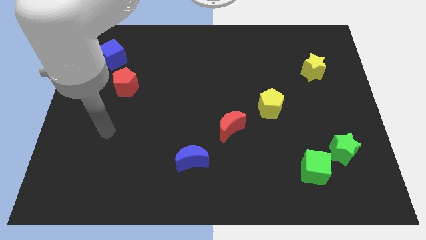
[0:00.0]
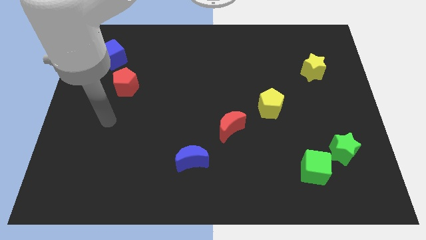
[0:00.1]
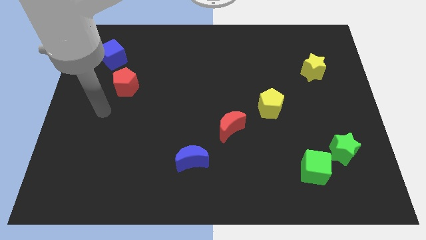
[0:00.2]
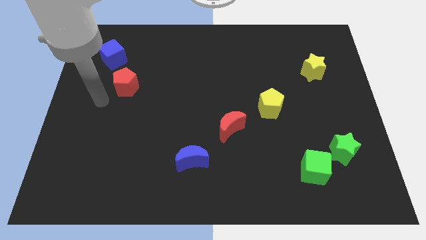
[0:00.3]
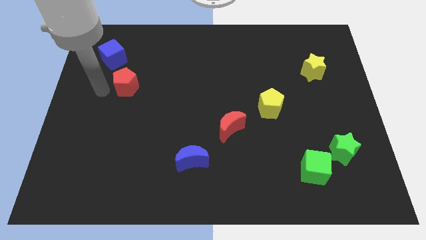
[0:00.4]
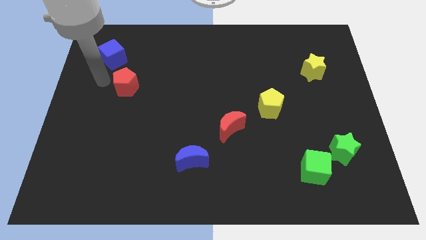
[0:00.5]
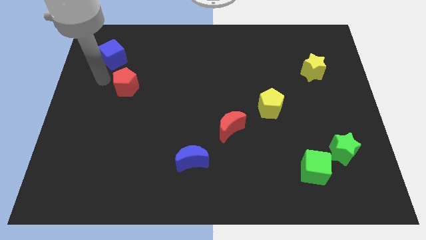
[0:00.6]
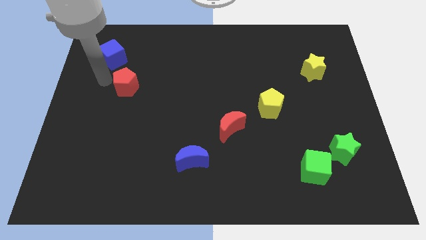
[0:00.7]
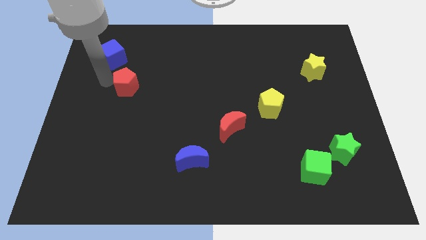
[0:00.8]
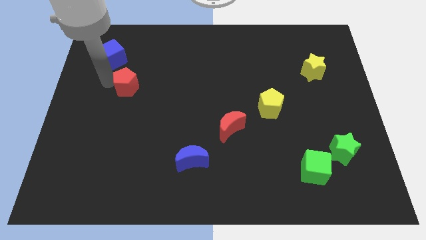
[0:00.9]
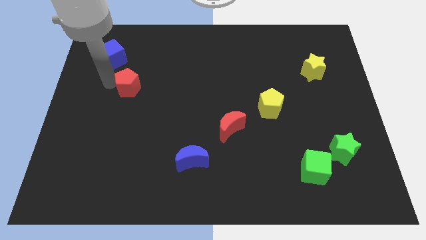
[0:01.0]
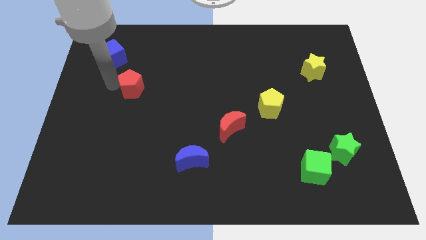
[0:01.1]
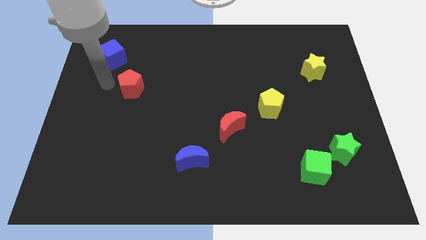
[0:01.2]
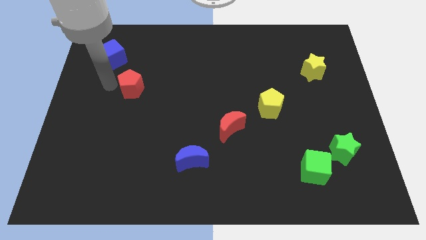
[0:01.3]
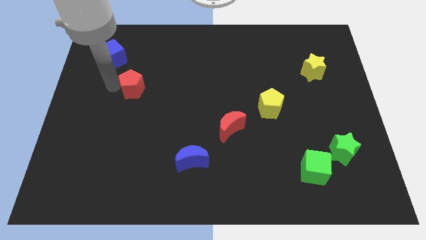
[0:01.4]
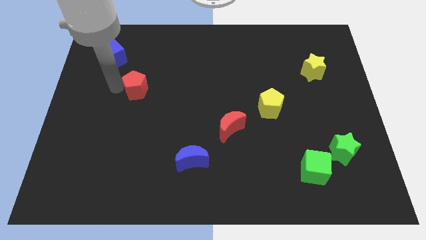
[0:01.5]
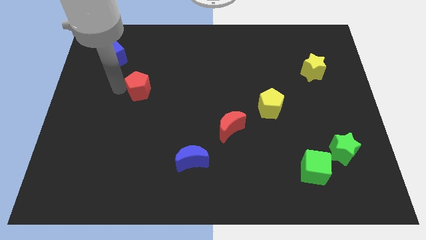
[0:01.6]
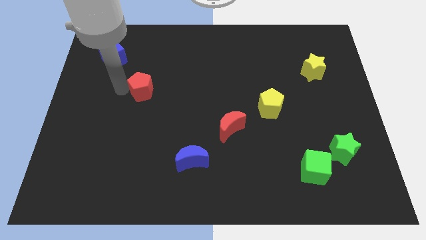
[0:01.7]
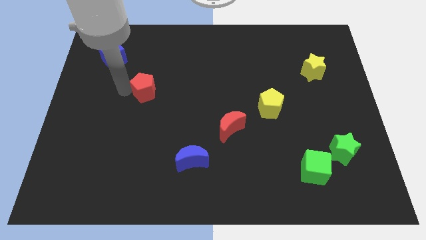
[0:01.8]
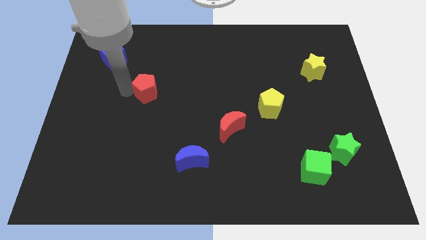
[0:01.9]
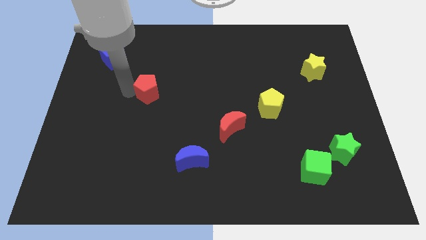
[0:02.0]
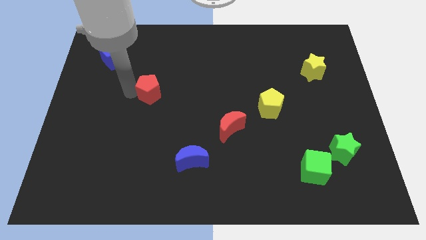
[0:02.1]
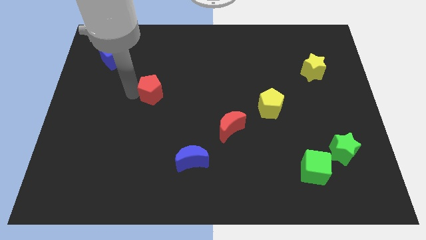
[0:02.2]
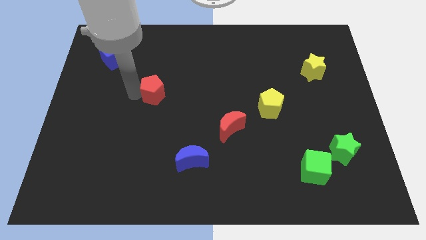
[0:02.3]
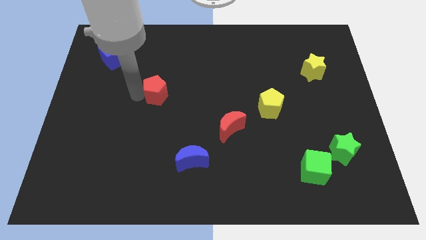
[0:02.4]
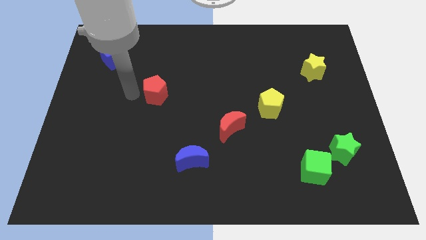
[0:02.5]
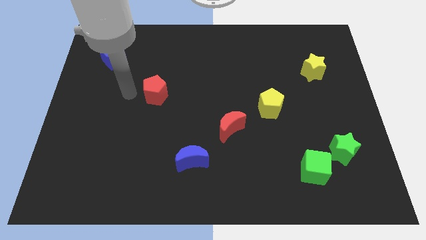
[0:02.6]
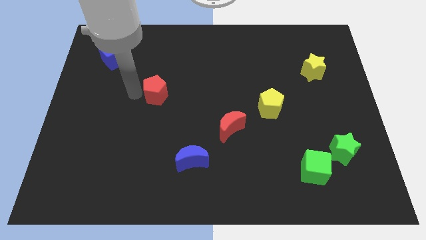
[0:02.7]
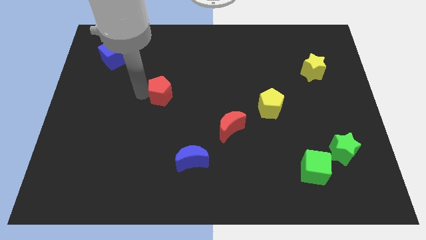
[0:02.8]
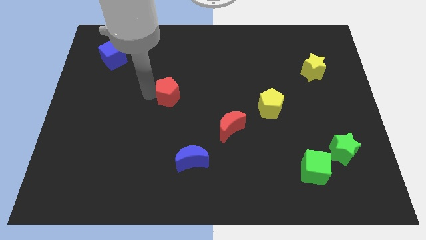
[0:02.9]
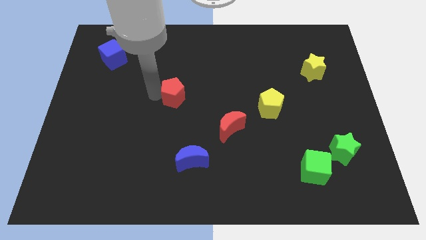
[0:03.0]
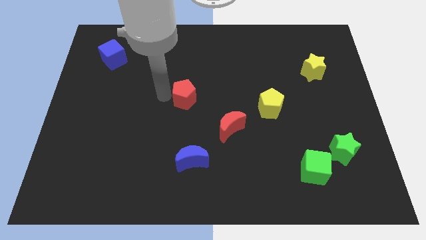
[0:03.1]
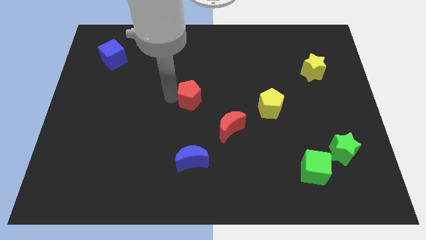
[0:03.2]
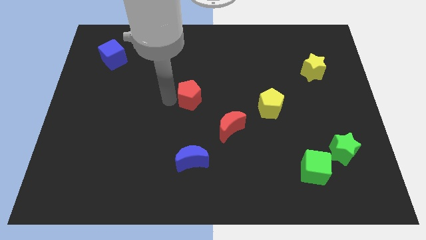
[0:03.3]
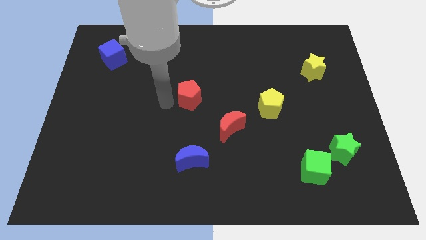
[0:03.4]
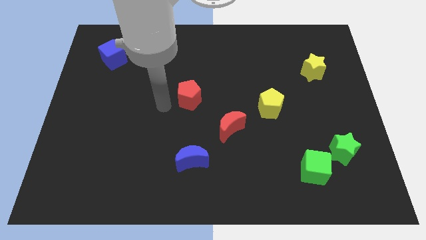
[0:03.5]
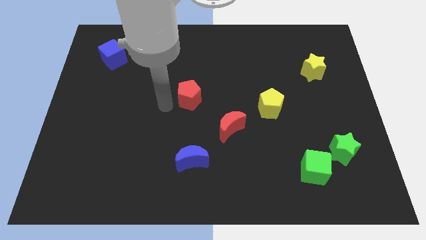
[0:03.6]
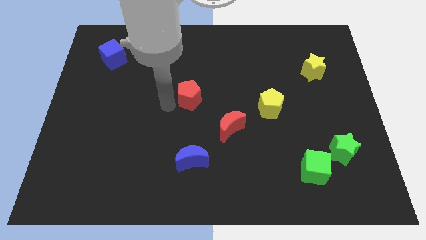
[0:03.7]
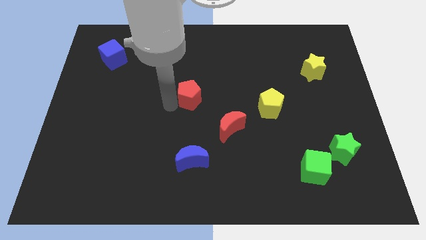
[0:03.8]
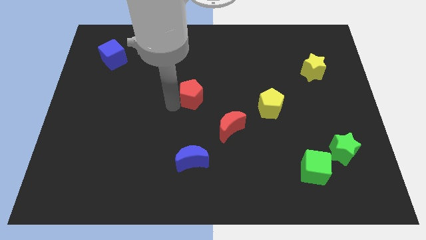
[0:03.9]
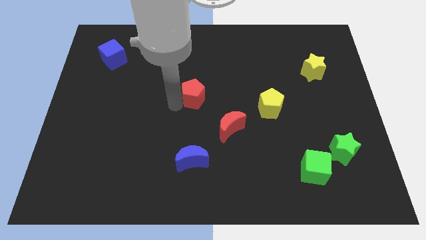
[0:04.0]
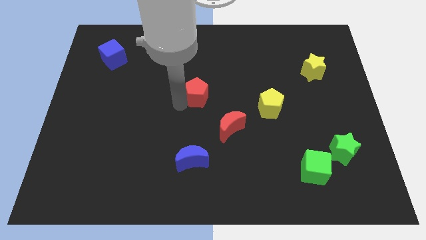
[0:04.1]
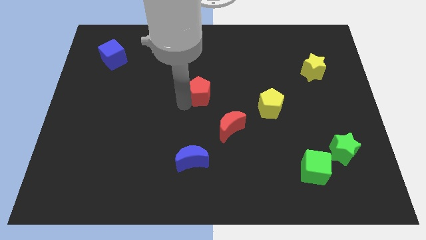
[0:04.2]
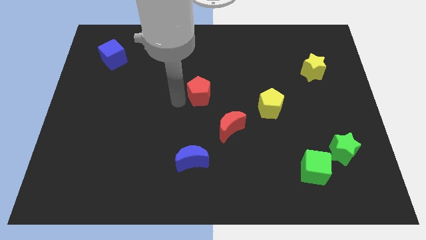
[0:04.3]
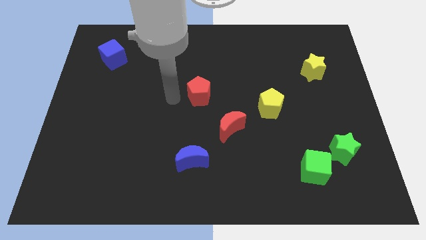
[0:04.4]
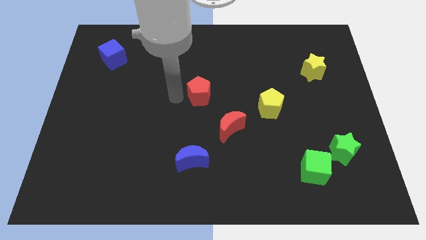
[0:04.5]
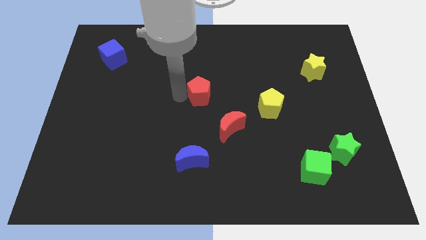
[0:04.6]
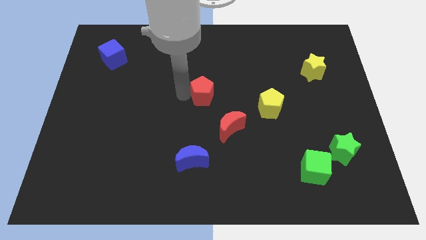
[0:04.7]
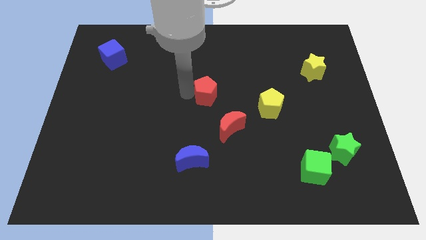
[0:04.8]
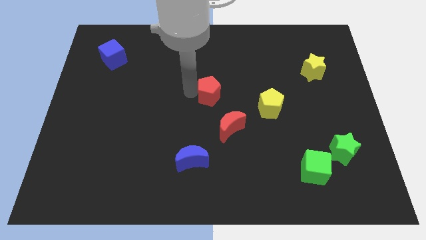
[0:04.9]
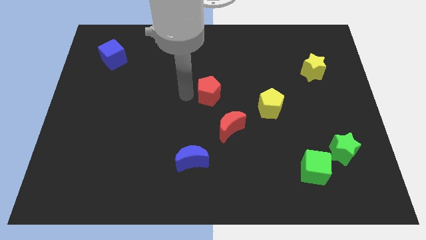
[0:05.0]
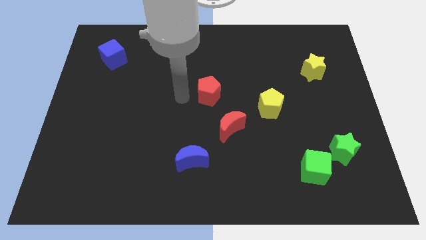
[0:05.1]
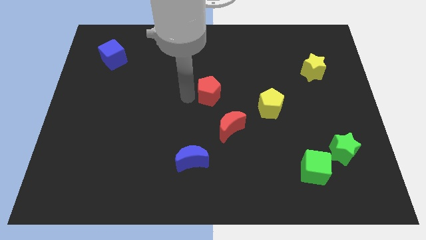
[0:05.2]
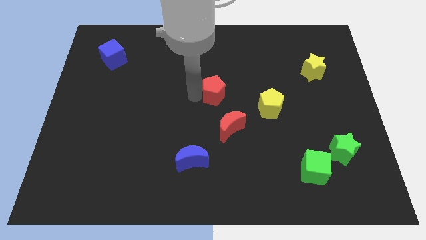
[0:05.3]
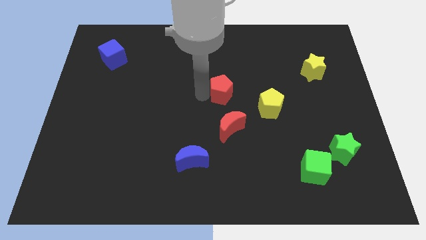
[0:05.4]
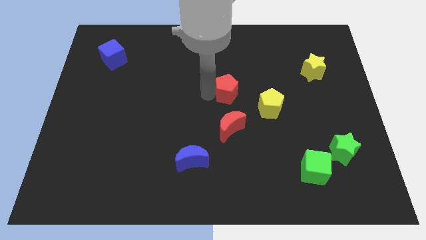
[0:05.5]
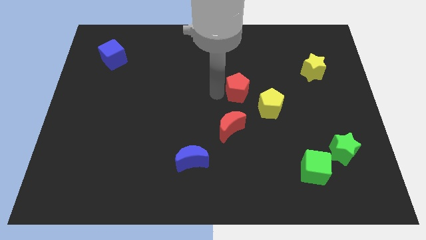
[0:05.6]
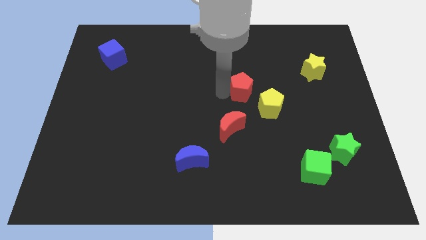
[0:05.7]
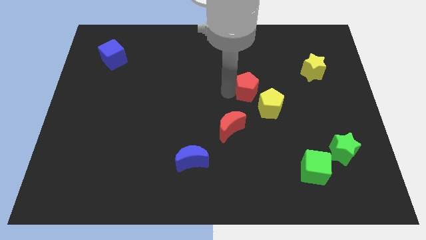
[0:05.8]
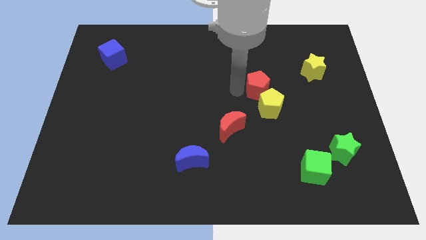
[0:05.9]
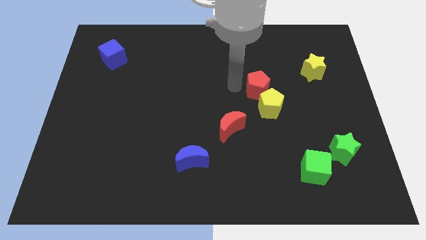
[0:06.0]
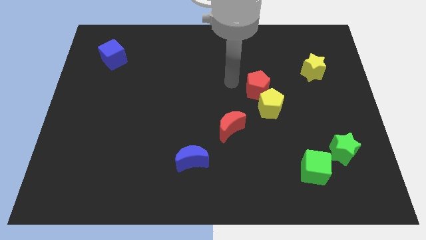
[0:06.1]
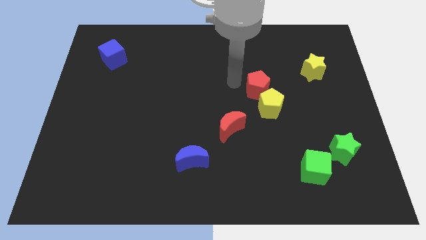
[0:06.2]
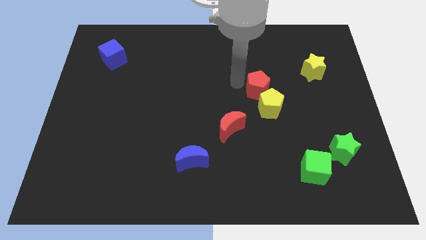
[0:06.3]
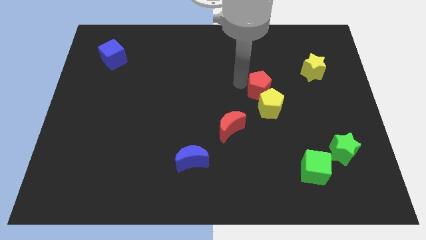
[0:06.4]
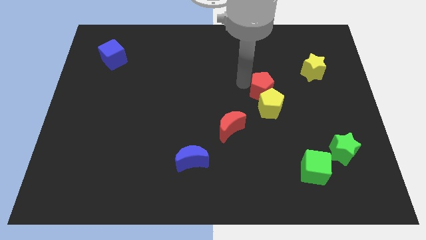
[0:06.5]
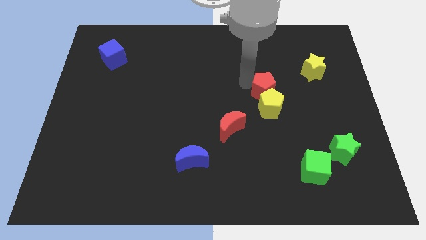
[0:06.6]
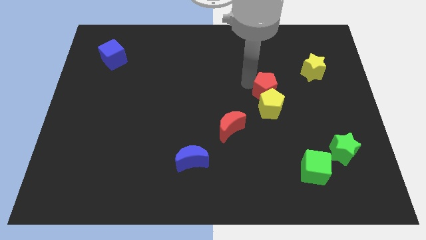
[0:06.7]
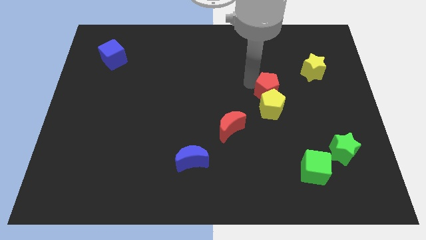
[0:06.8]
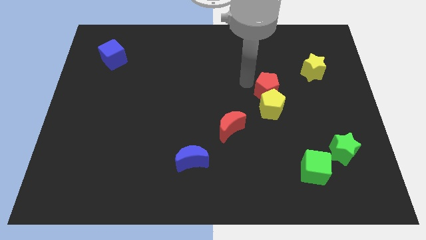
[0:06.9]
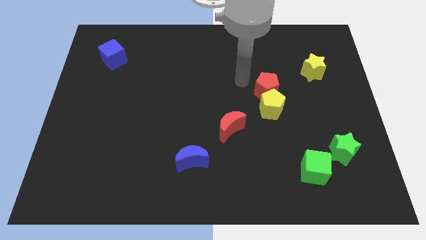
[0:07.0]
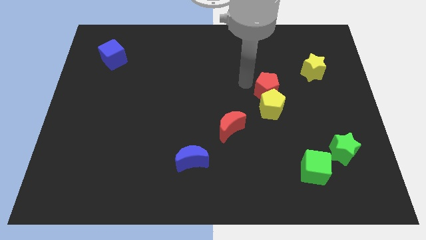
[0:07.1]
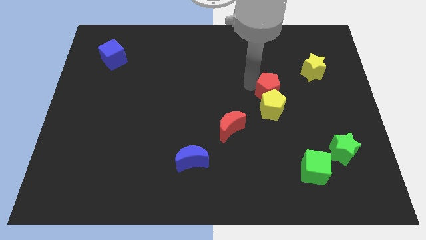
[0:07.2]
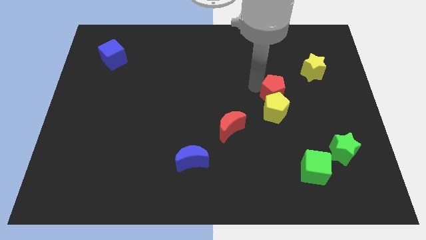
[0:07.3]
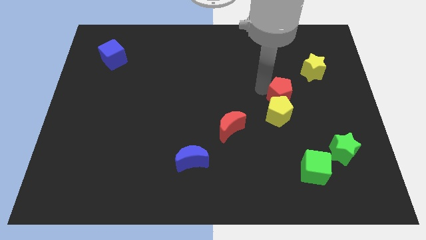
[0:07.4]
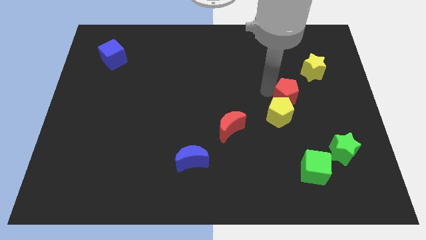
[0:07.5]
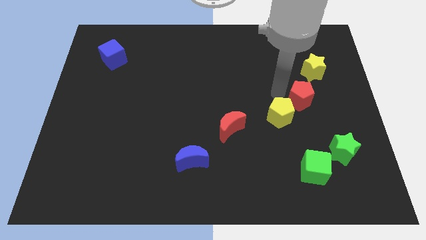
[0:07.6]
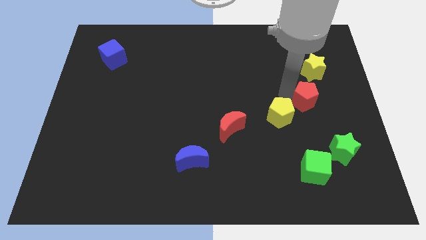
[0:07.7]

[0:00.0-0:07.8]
put the red pentagon just right of the yellow pentagon
